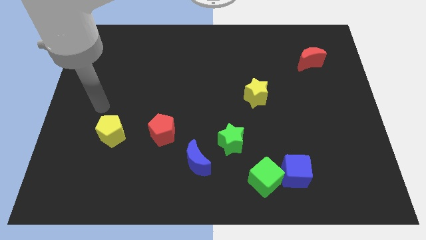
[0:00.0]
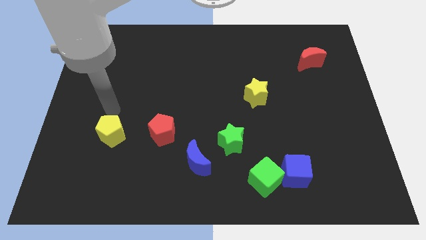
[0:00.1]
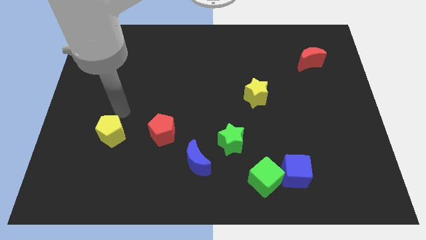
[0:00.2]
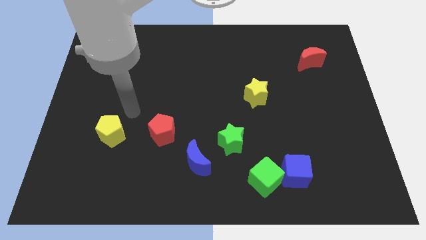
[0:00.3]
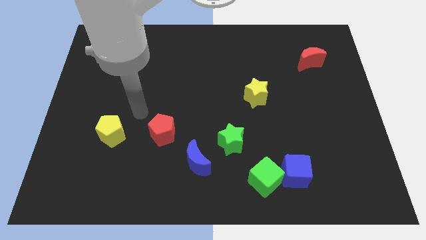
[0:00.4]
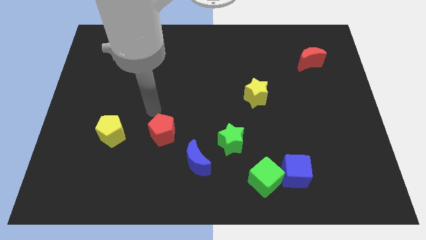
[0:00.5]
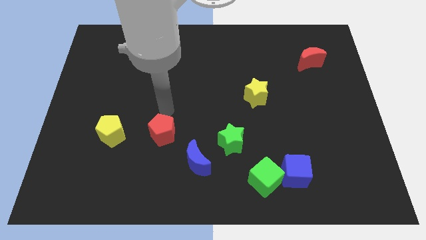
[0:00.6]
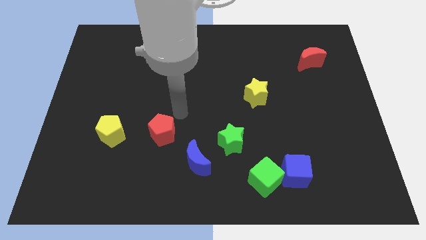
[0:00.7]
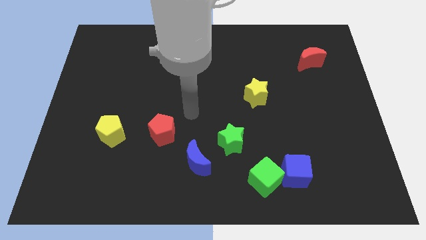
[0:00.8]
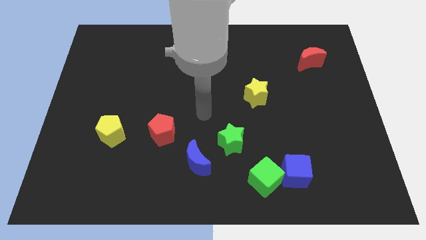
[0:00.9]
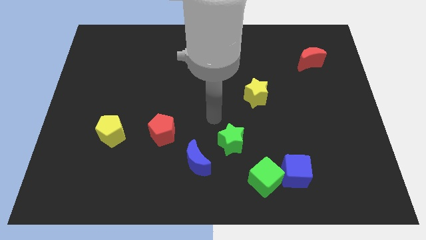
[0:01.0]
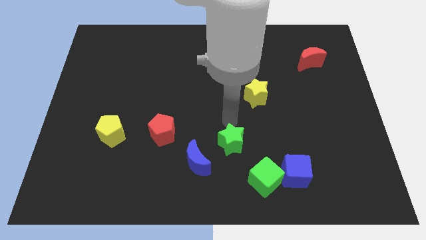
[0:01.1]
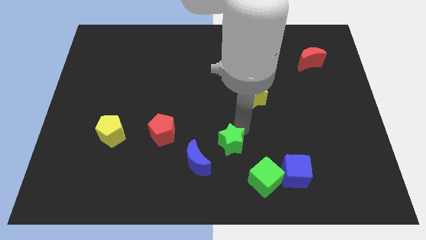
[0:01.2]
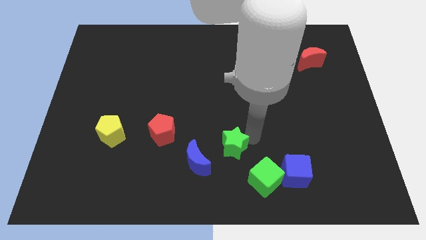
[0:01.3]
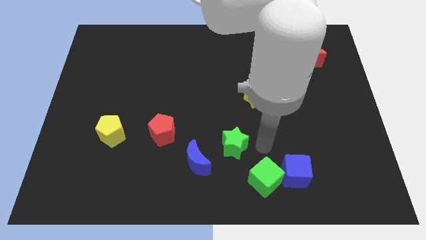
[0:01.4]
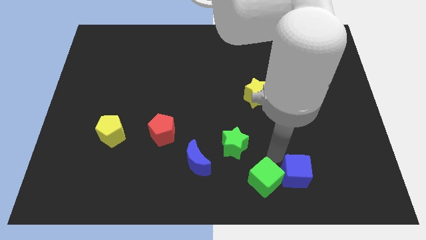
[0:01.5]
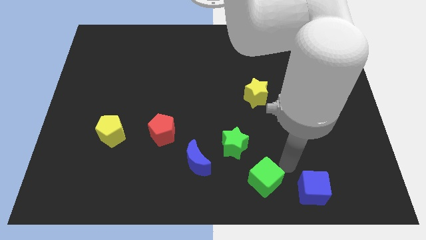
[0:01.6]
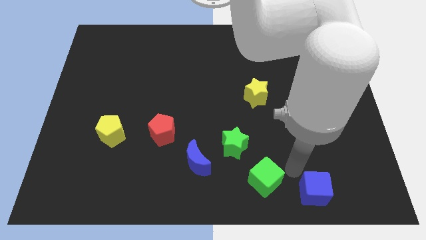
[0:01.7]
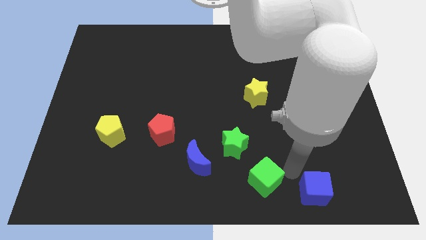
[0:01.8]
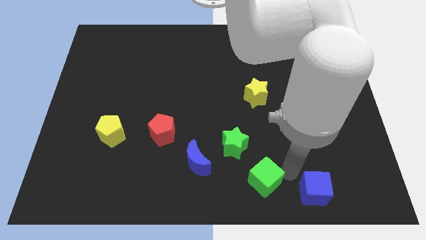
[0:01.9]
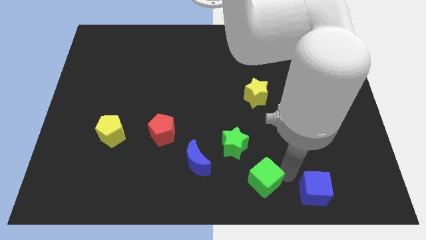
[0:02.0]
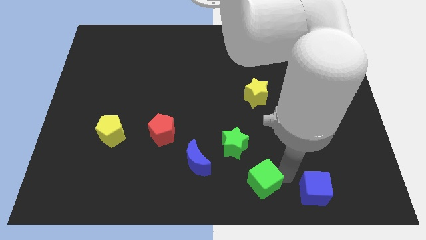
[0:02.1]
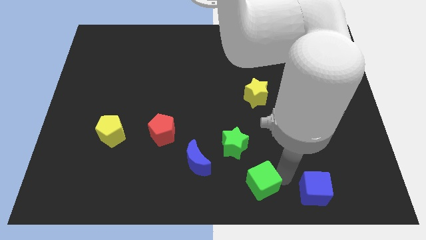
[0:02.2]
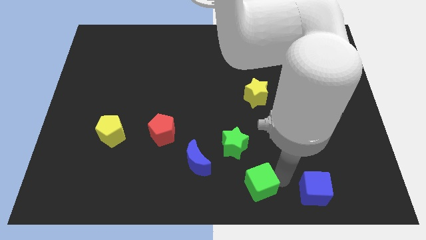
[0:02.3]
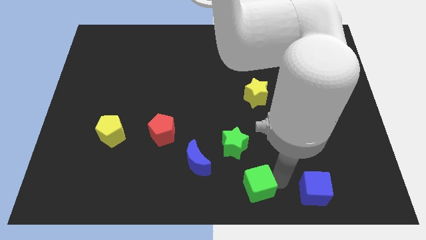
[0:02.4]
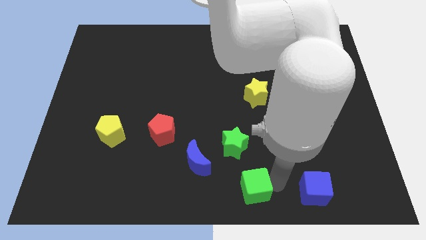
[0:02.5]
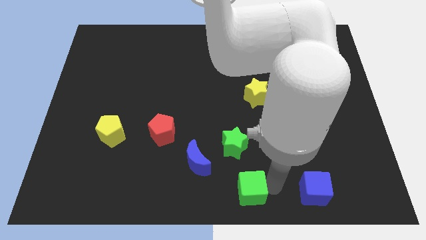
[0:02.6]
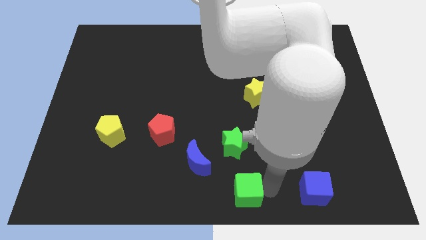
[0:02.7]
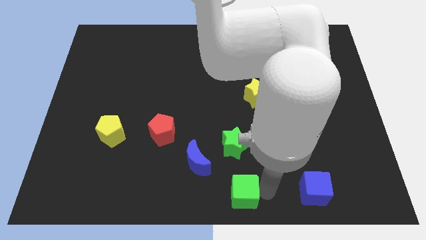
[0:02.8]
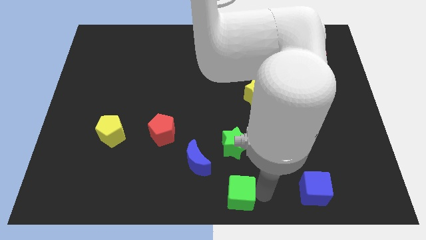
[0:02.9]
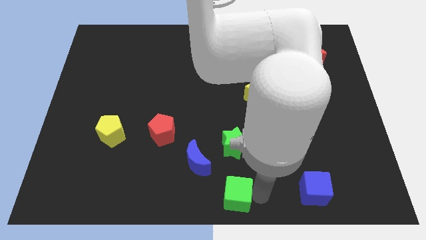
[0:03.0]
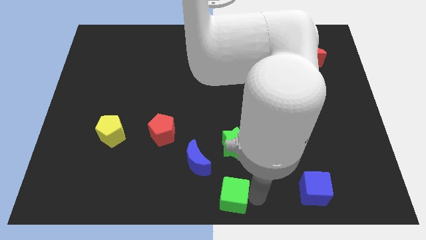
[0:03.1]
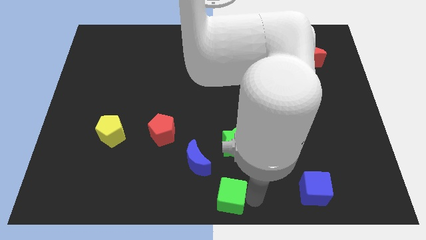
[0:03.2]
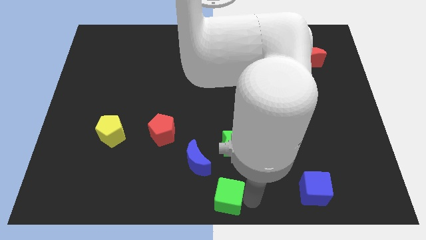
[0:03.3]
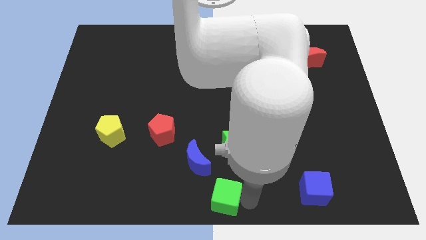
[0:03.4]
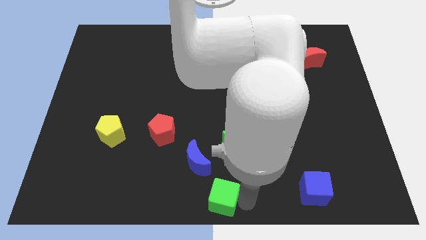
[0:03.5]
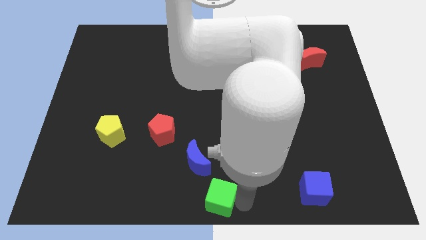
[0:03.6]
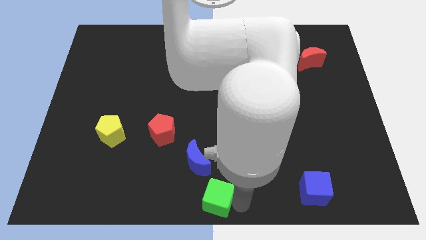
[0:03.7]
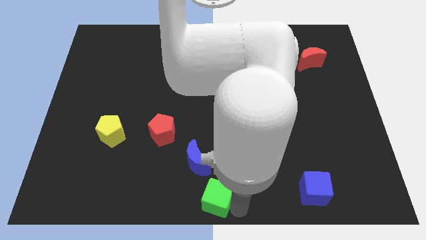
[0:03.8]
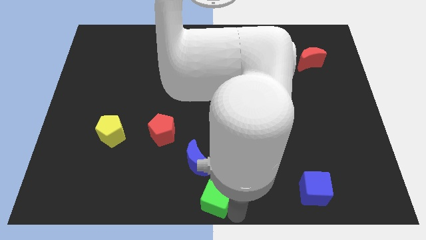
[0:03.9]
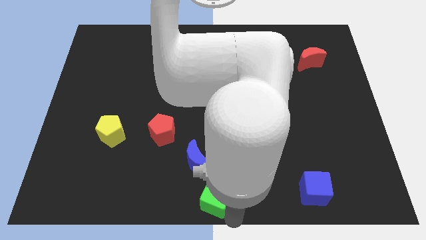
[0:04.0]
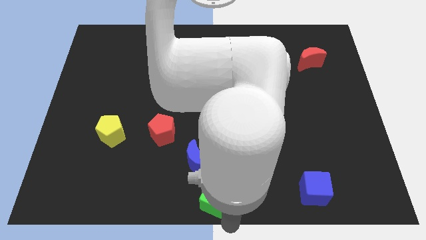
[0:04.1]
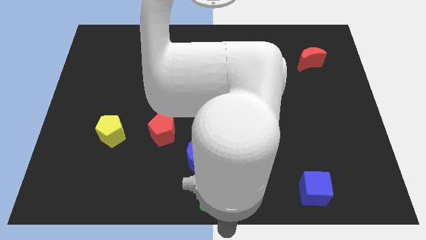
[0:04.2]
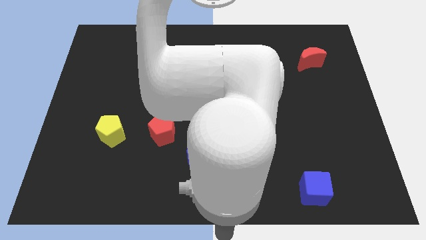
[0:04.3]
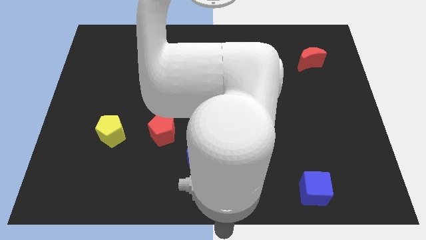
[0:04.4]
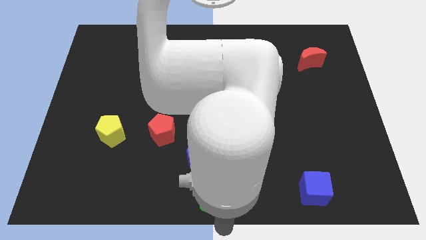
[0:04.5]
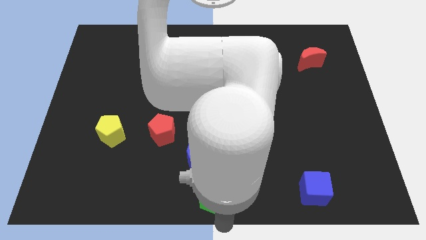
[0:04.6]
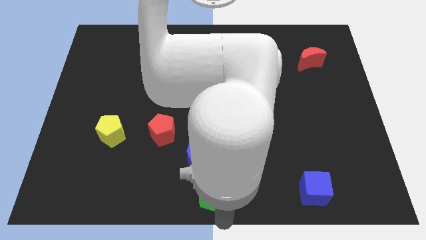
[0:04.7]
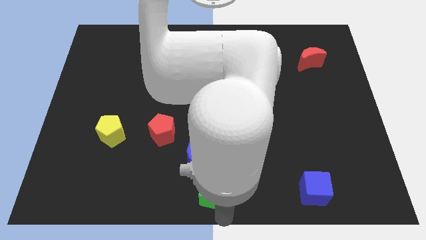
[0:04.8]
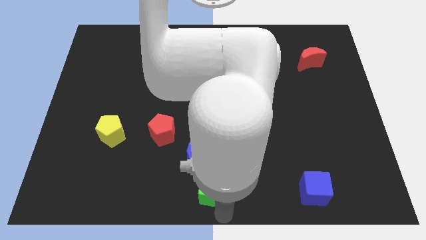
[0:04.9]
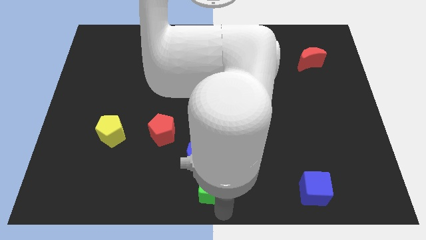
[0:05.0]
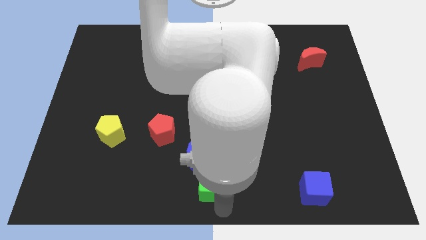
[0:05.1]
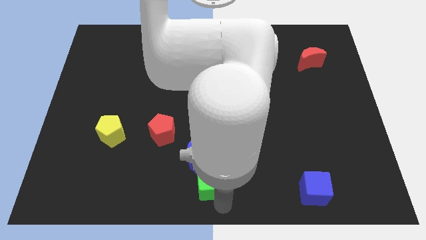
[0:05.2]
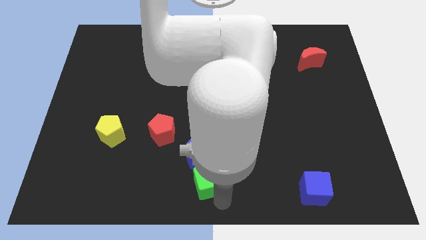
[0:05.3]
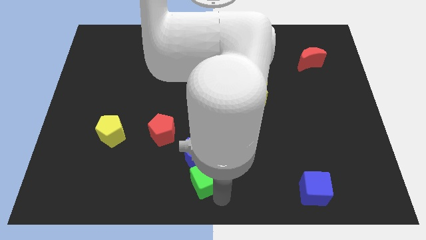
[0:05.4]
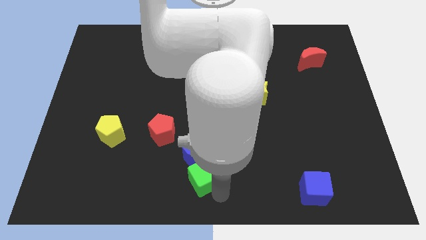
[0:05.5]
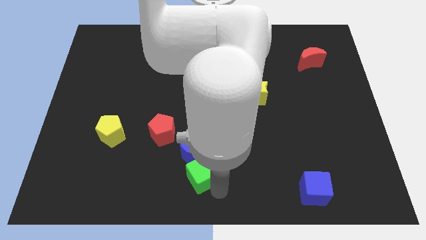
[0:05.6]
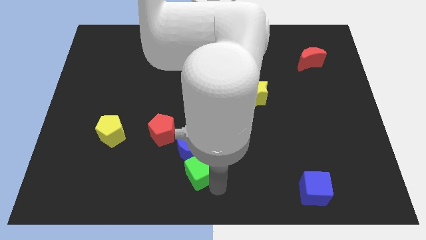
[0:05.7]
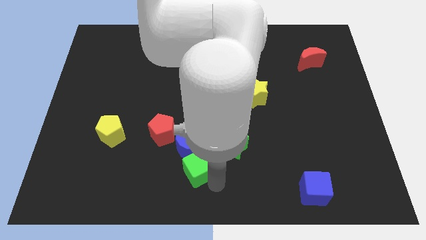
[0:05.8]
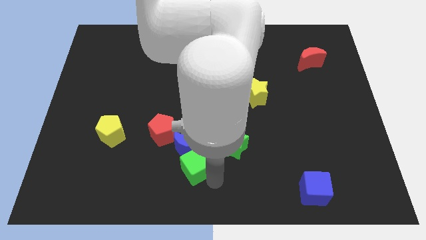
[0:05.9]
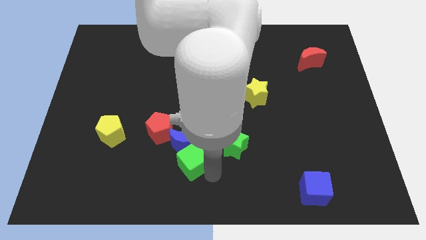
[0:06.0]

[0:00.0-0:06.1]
move the green cube left of the green star

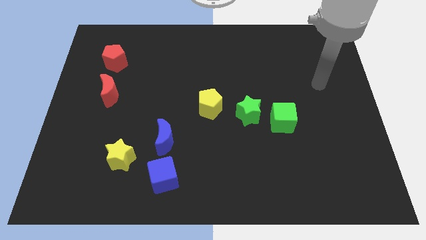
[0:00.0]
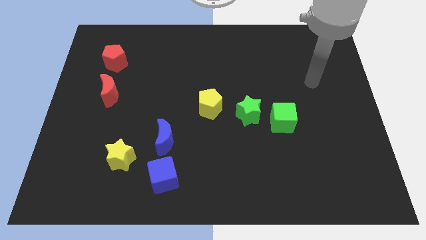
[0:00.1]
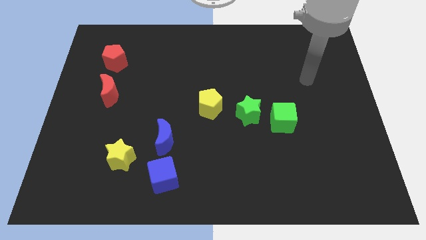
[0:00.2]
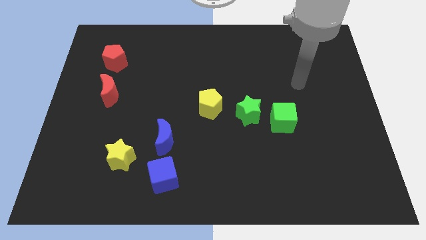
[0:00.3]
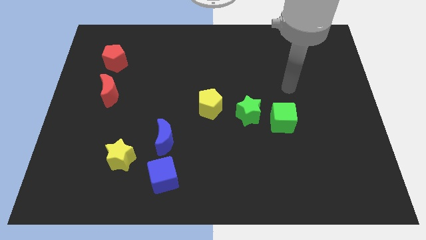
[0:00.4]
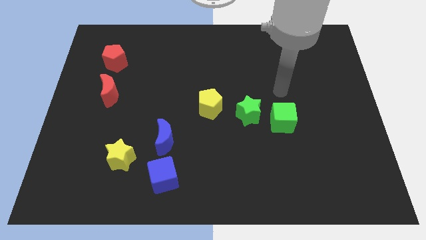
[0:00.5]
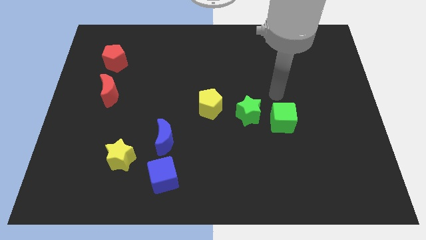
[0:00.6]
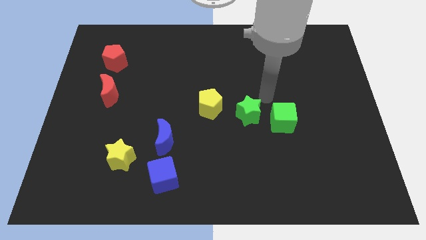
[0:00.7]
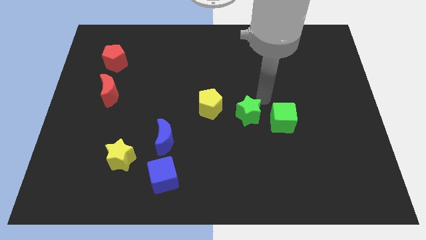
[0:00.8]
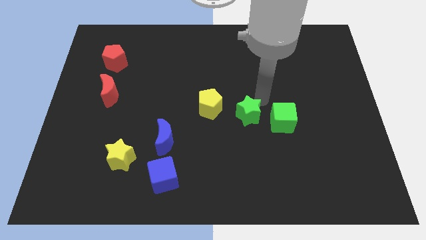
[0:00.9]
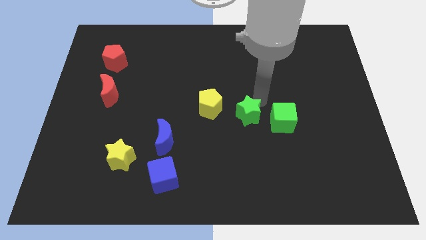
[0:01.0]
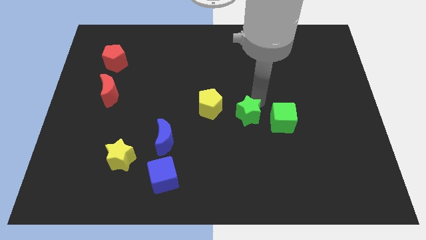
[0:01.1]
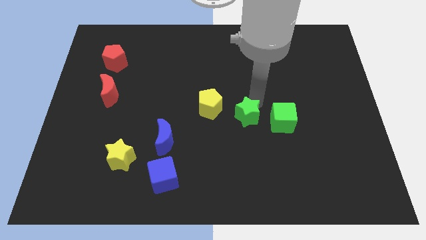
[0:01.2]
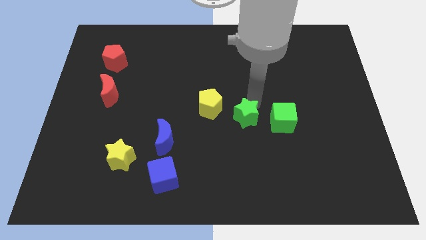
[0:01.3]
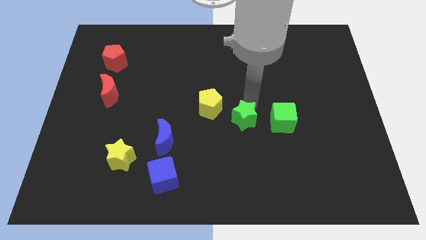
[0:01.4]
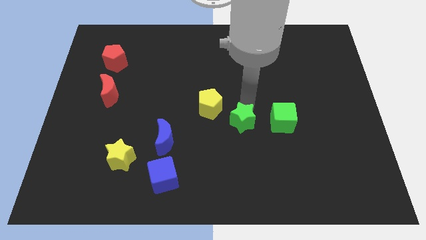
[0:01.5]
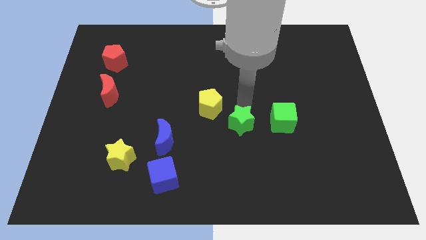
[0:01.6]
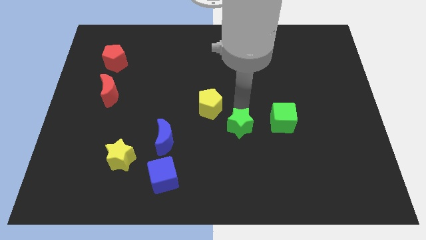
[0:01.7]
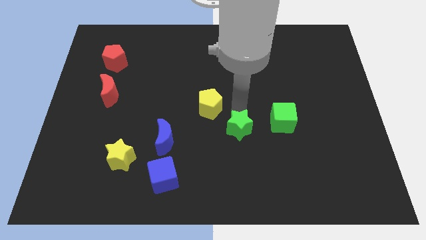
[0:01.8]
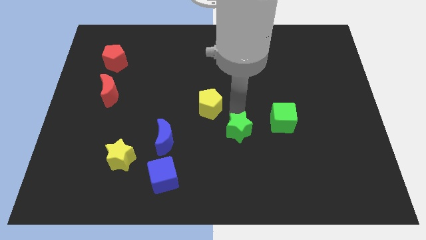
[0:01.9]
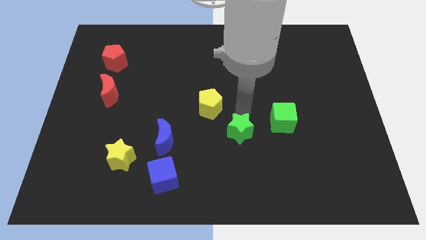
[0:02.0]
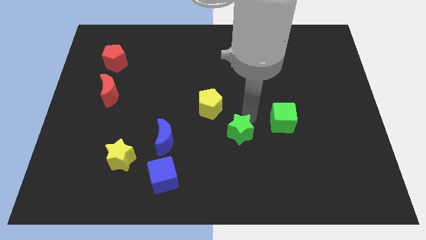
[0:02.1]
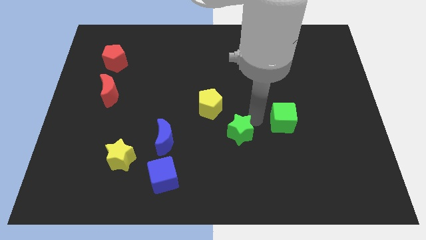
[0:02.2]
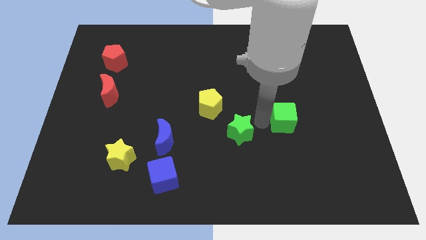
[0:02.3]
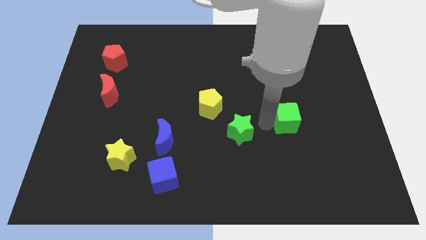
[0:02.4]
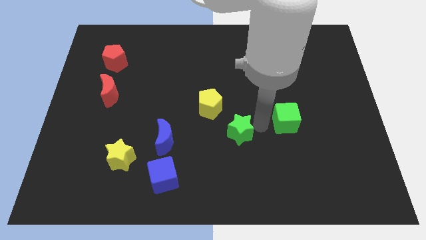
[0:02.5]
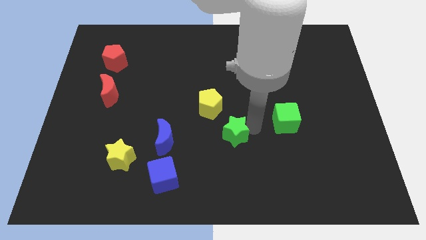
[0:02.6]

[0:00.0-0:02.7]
push the green star to the right side of the blue moon
